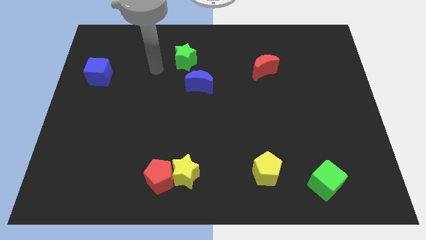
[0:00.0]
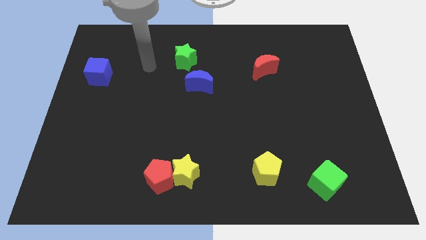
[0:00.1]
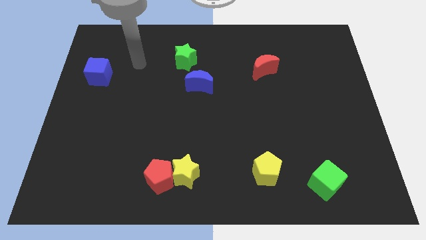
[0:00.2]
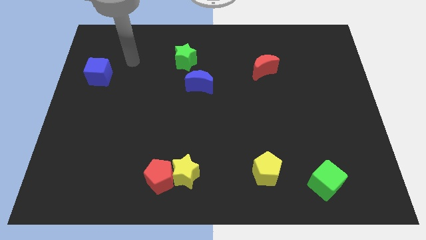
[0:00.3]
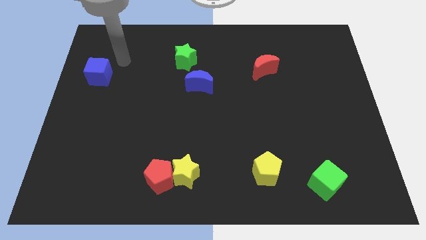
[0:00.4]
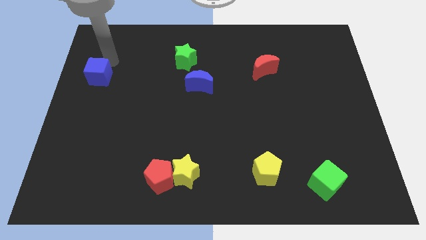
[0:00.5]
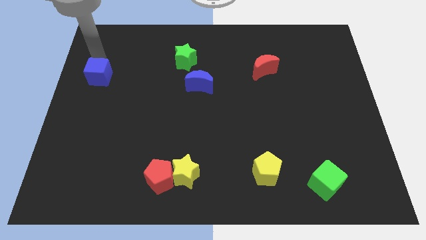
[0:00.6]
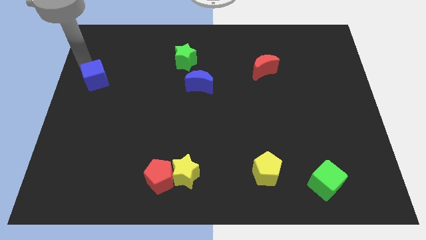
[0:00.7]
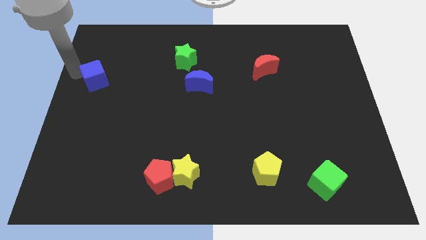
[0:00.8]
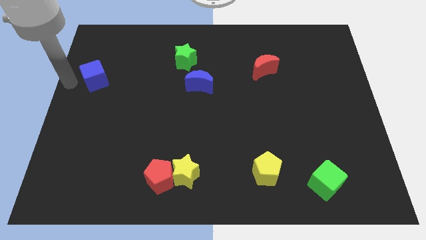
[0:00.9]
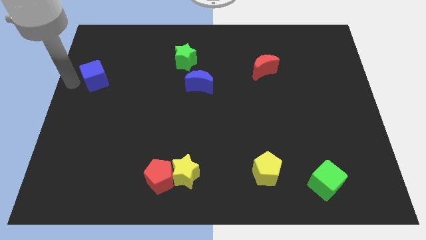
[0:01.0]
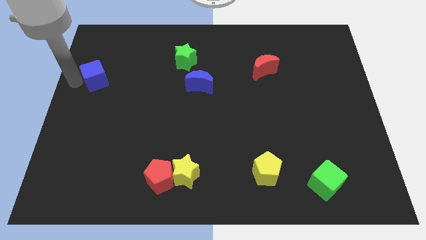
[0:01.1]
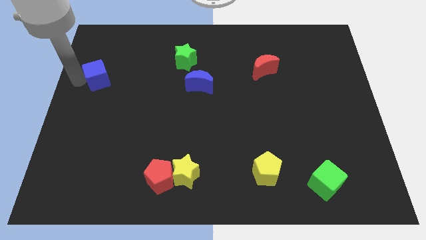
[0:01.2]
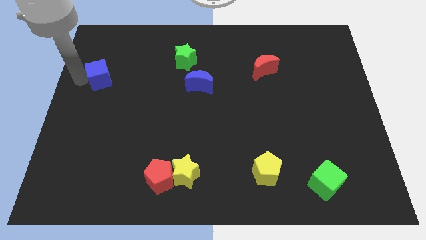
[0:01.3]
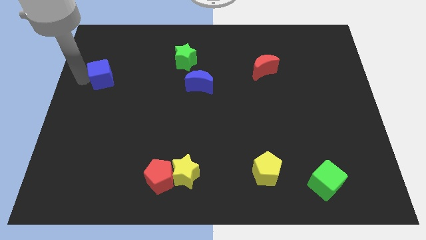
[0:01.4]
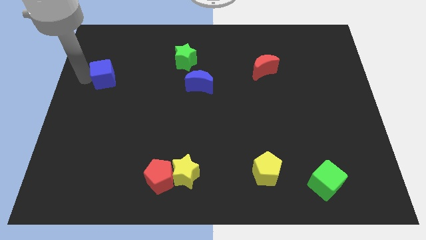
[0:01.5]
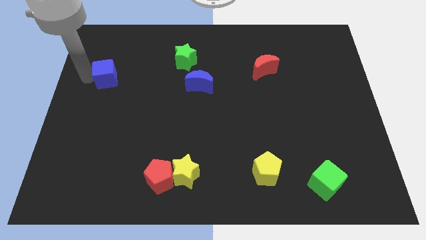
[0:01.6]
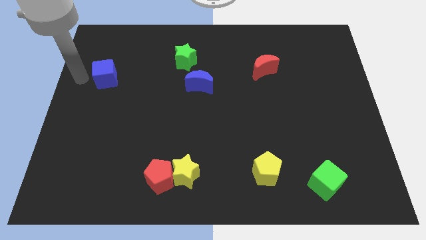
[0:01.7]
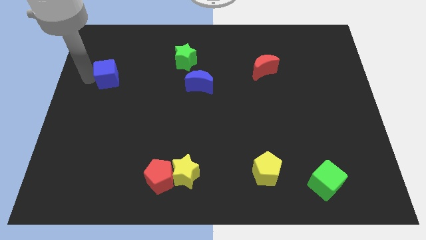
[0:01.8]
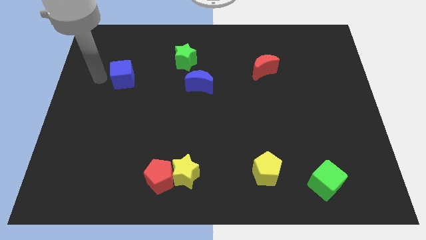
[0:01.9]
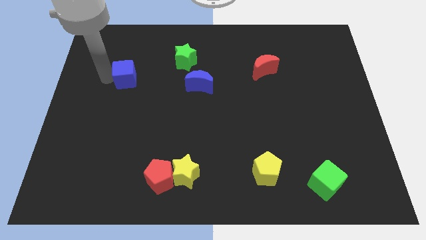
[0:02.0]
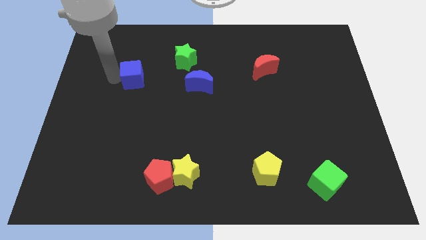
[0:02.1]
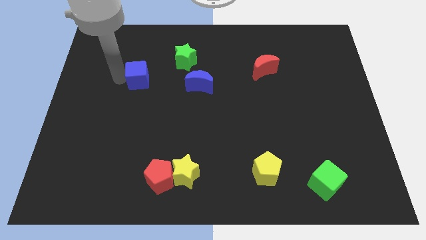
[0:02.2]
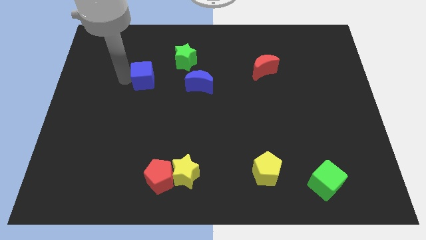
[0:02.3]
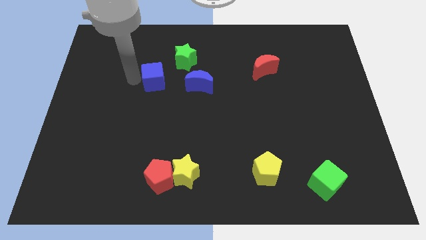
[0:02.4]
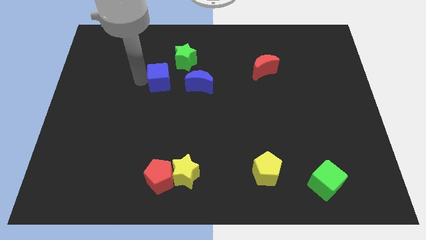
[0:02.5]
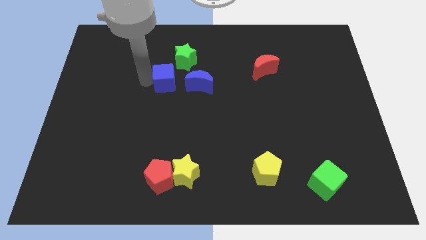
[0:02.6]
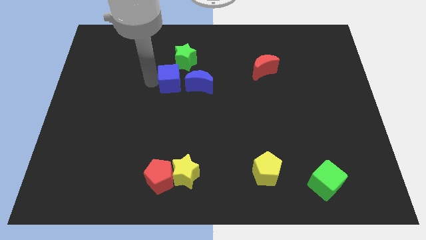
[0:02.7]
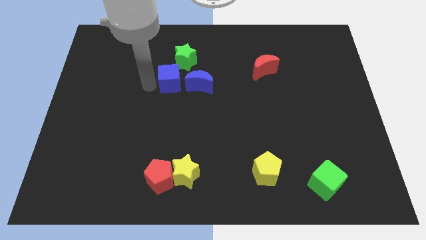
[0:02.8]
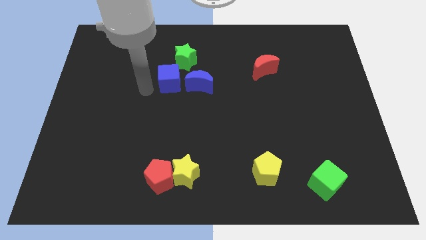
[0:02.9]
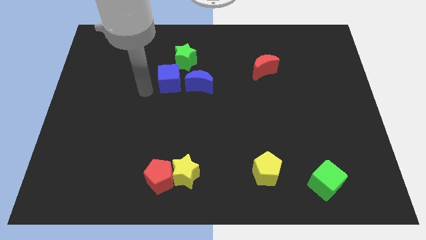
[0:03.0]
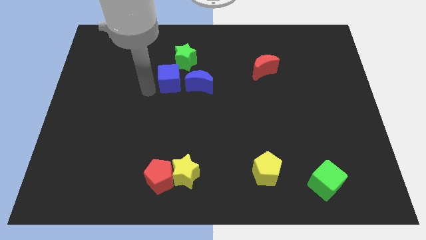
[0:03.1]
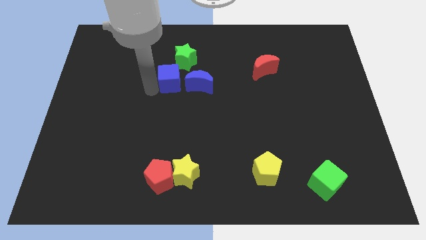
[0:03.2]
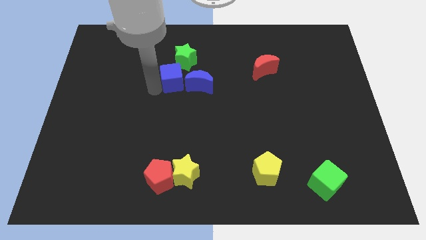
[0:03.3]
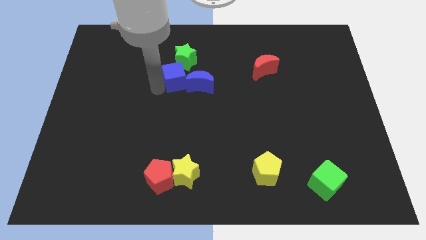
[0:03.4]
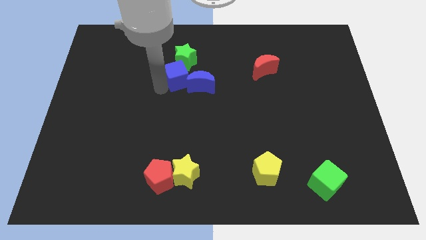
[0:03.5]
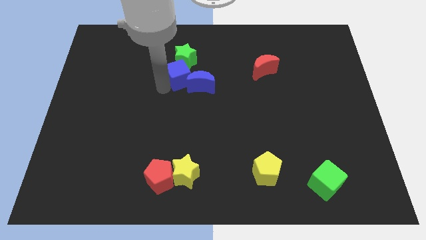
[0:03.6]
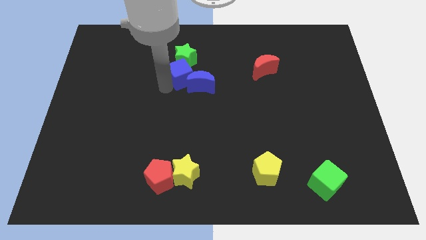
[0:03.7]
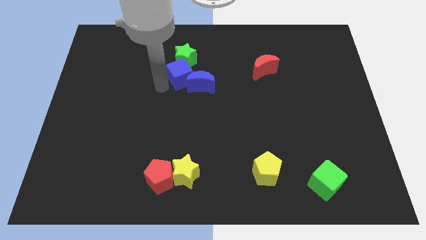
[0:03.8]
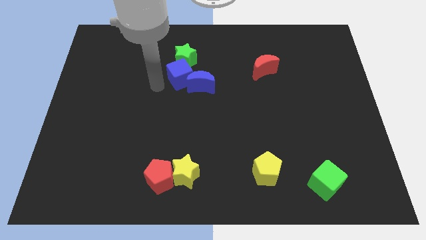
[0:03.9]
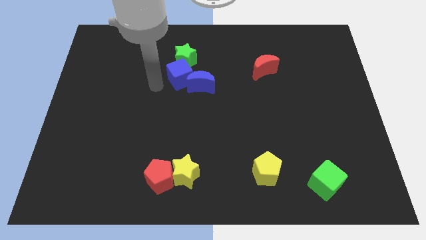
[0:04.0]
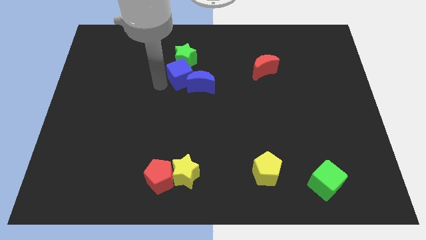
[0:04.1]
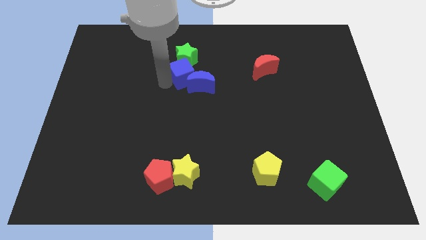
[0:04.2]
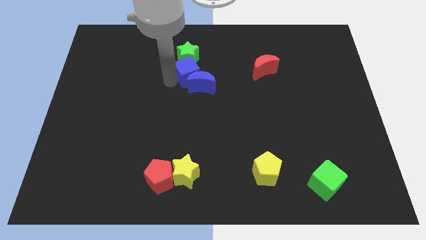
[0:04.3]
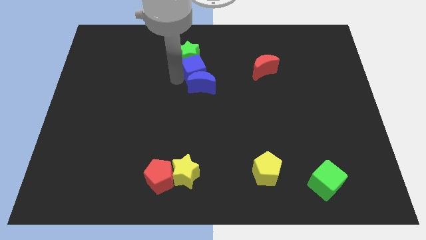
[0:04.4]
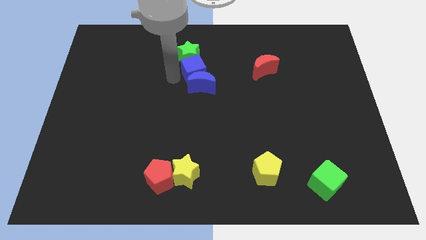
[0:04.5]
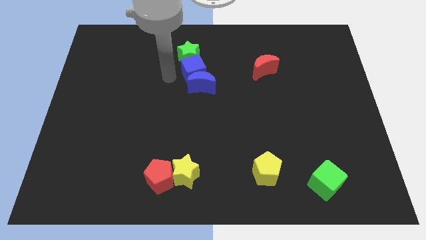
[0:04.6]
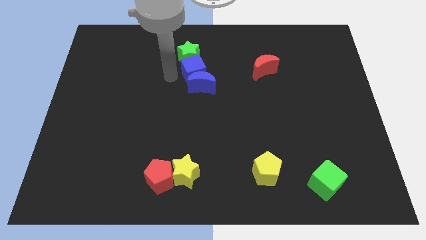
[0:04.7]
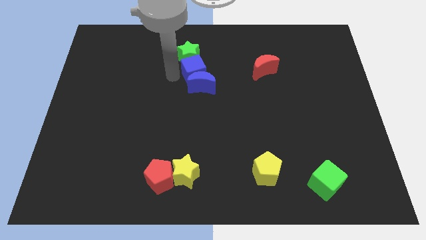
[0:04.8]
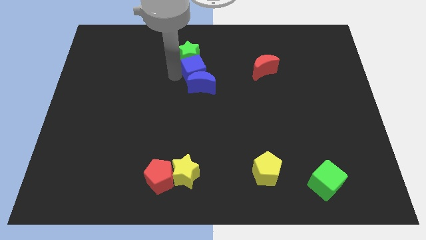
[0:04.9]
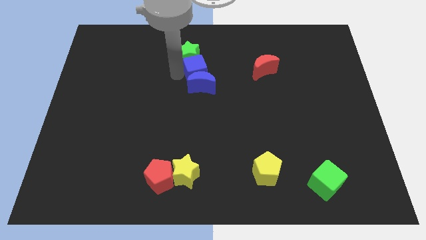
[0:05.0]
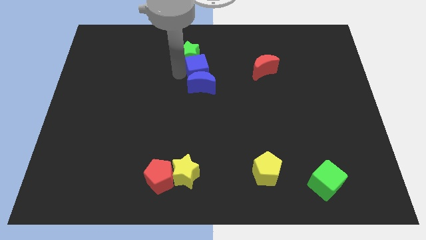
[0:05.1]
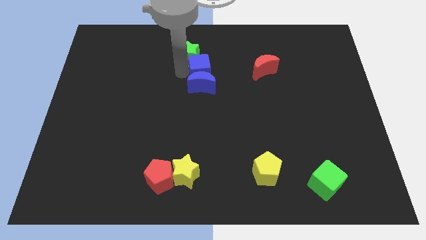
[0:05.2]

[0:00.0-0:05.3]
move the blue cube to the left of the red moon

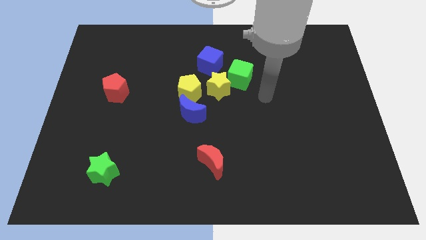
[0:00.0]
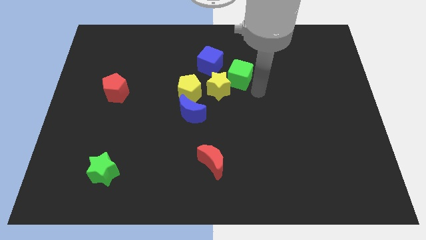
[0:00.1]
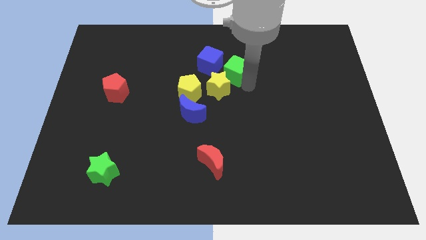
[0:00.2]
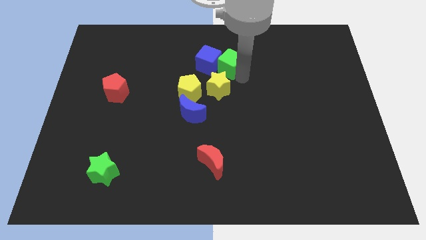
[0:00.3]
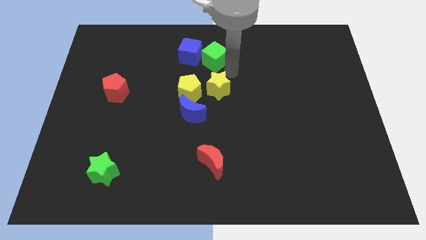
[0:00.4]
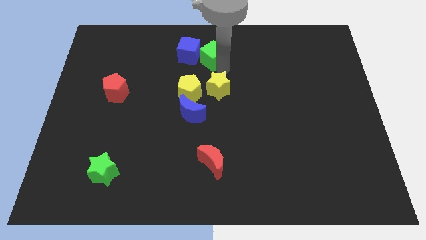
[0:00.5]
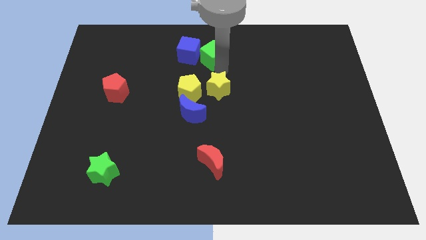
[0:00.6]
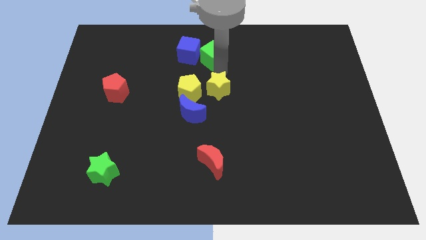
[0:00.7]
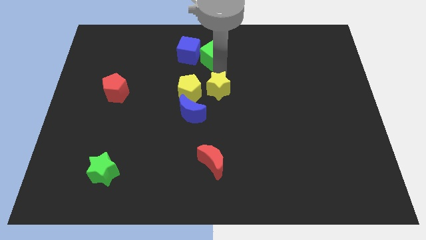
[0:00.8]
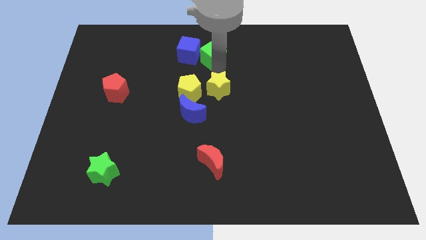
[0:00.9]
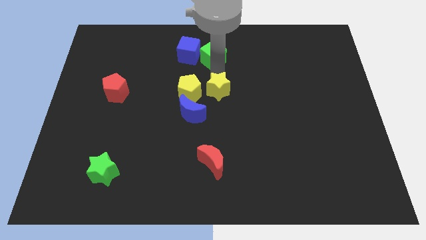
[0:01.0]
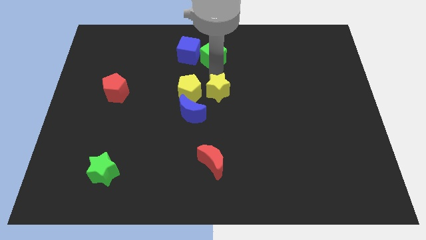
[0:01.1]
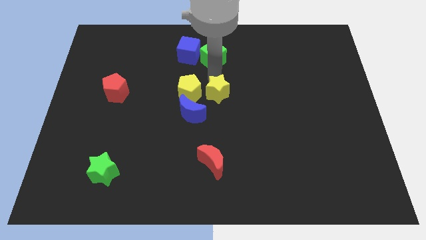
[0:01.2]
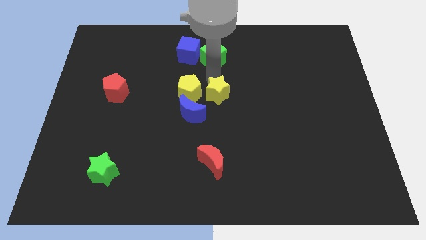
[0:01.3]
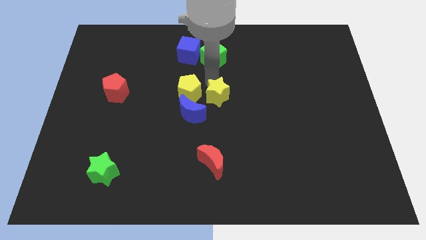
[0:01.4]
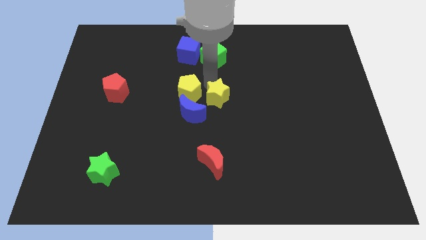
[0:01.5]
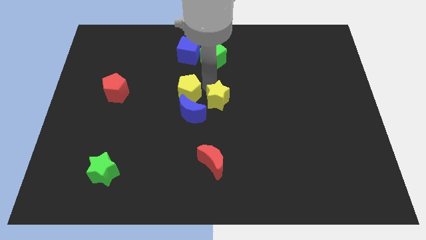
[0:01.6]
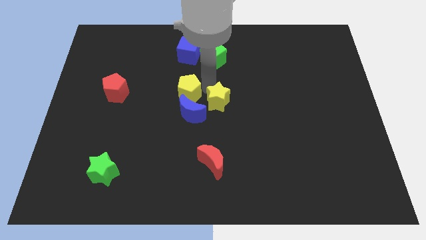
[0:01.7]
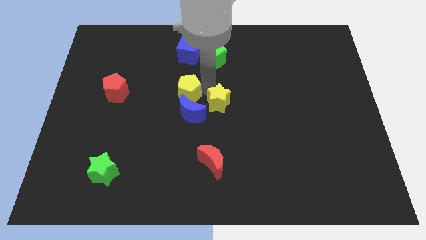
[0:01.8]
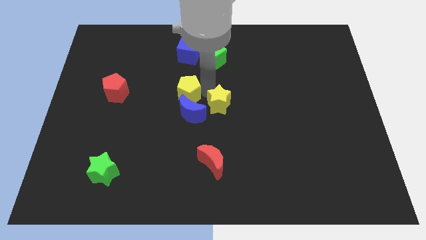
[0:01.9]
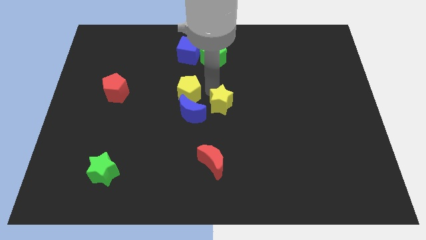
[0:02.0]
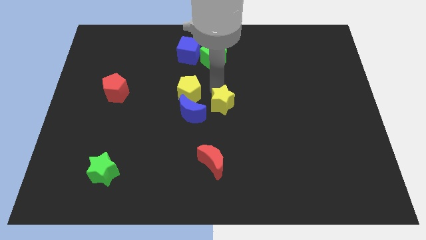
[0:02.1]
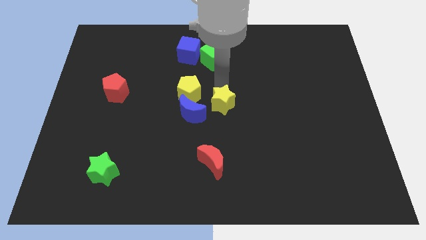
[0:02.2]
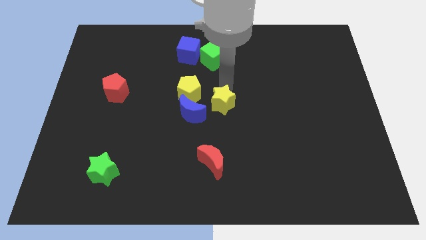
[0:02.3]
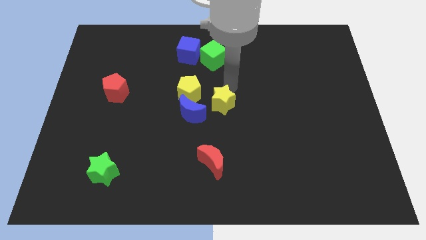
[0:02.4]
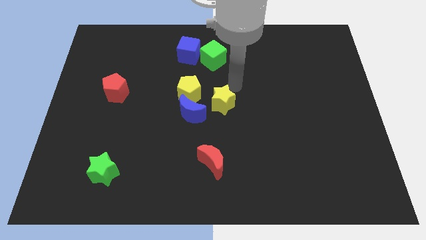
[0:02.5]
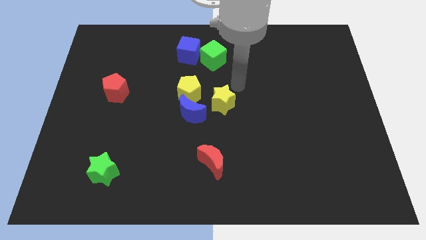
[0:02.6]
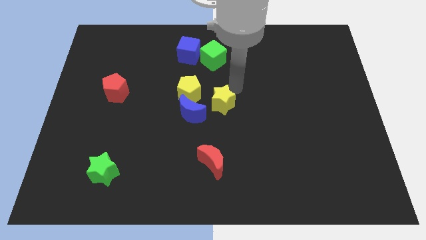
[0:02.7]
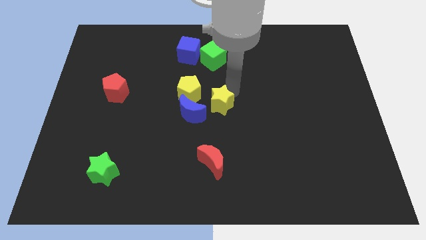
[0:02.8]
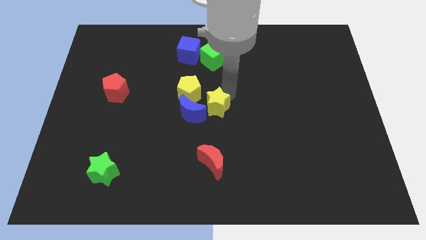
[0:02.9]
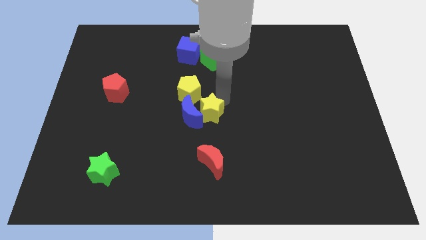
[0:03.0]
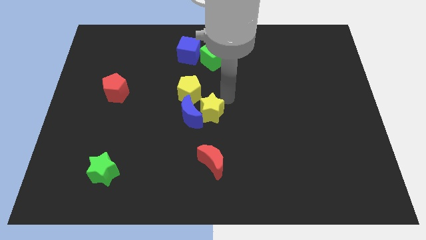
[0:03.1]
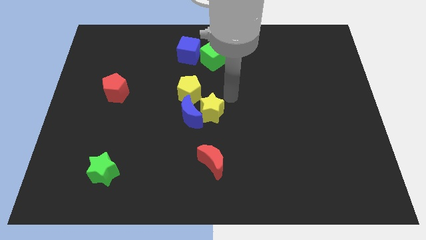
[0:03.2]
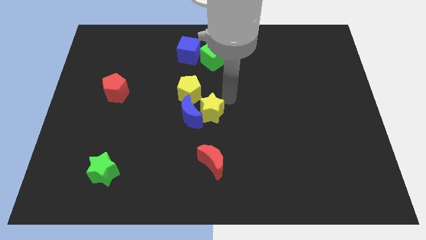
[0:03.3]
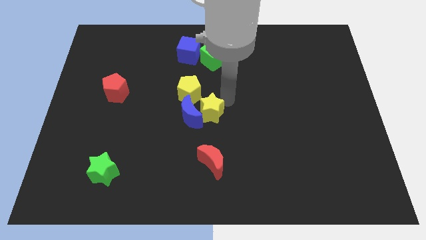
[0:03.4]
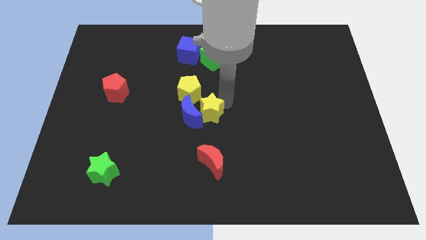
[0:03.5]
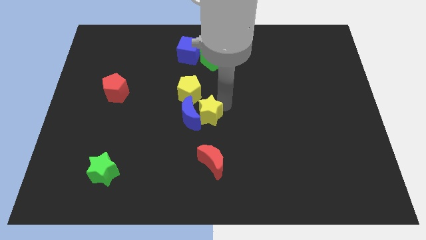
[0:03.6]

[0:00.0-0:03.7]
push the yellow star to the bottom of the yellow pentagon
